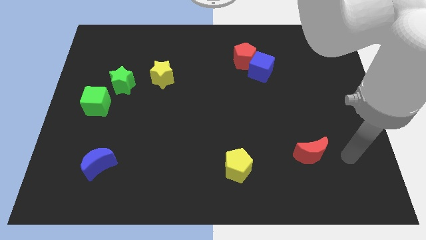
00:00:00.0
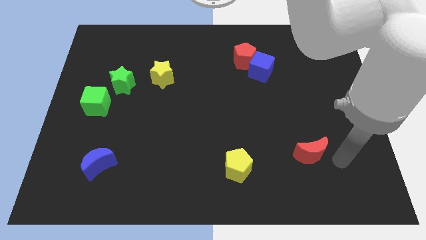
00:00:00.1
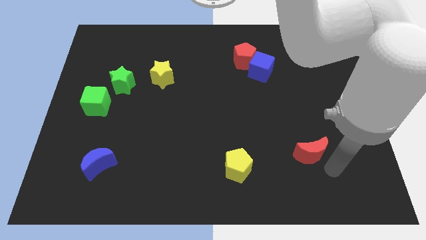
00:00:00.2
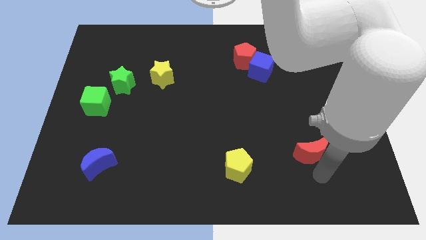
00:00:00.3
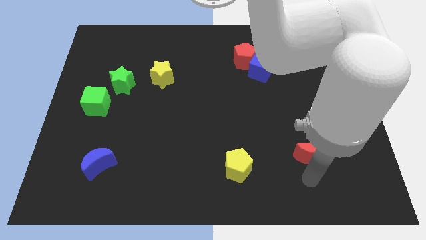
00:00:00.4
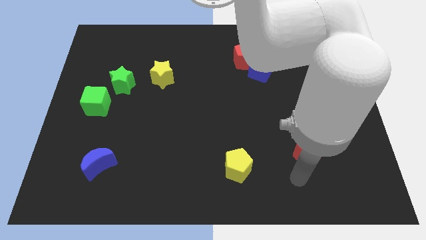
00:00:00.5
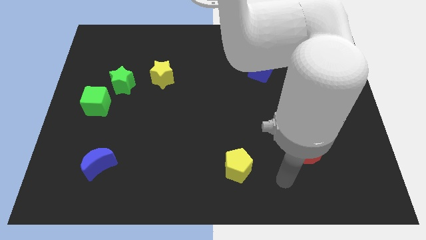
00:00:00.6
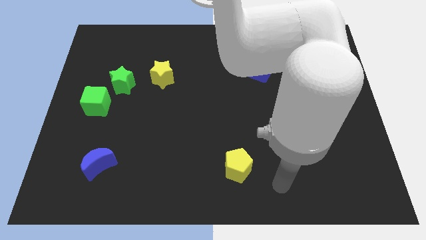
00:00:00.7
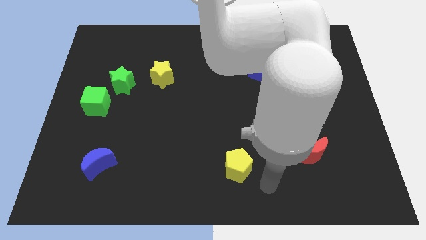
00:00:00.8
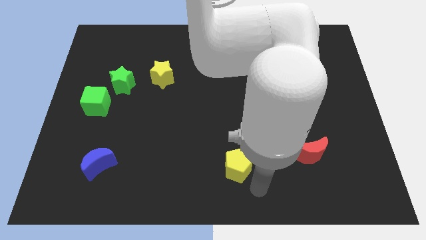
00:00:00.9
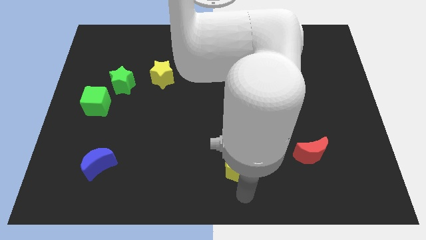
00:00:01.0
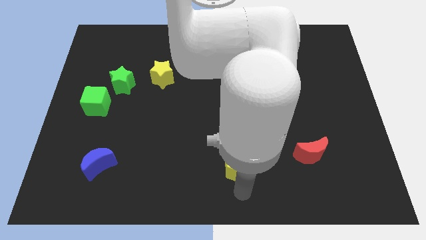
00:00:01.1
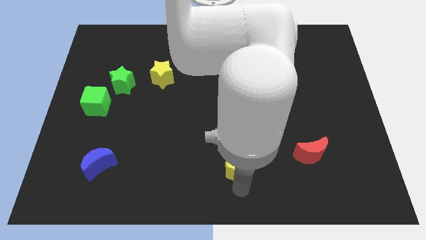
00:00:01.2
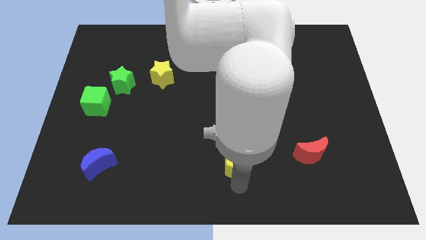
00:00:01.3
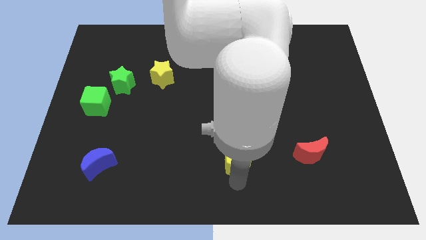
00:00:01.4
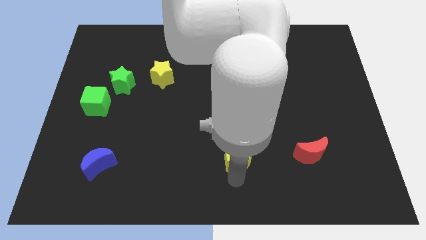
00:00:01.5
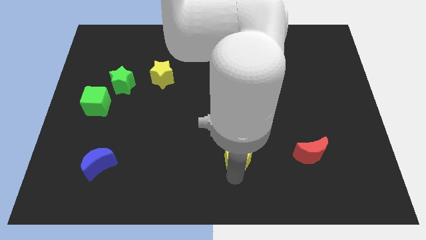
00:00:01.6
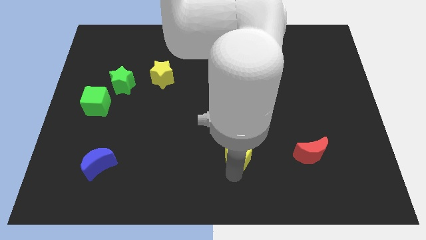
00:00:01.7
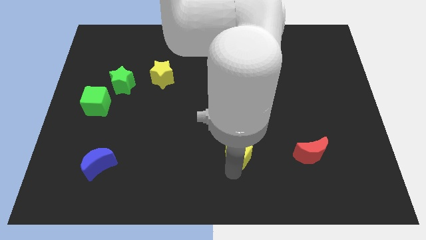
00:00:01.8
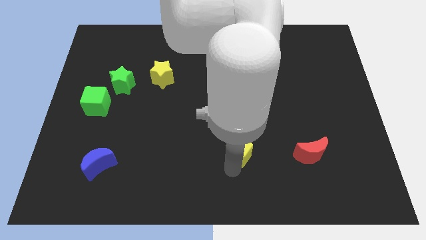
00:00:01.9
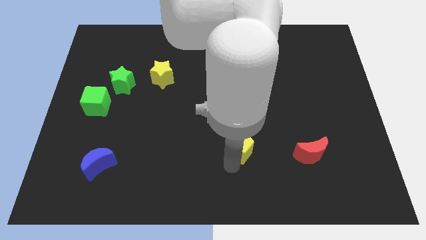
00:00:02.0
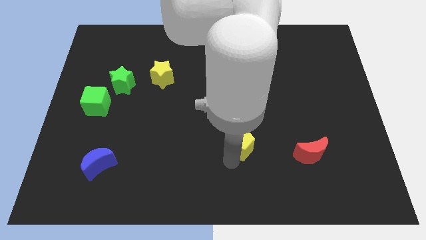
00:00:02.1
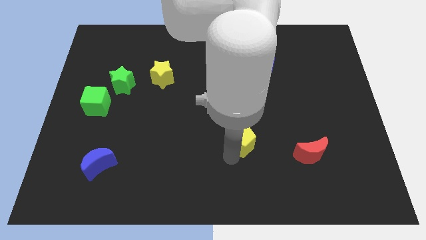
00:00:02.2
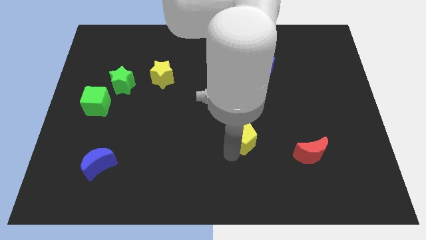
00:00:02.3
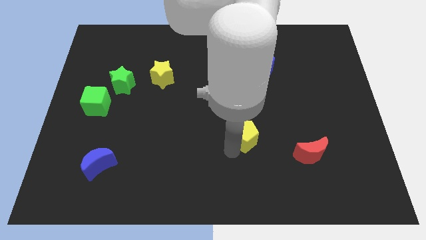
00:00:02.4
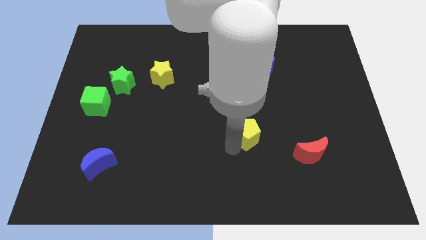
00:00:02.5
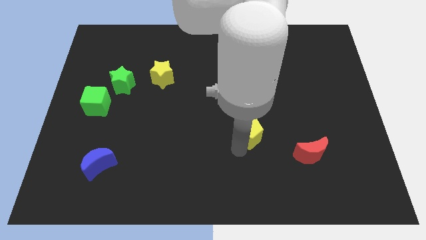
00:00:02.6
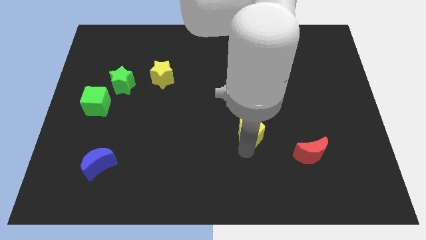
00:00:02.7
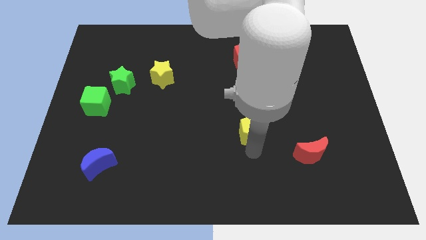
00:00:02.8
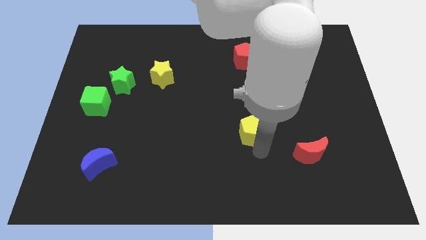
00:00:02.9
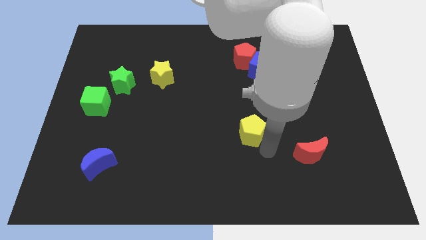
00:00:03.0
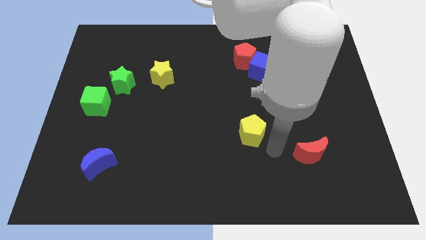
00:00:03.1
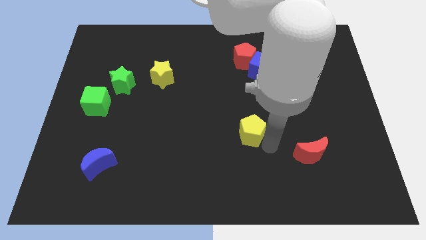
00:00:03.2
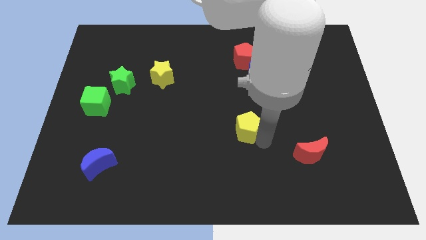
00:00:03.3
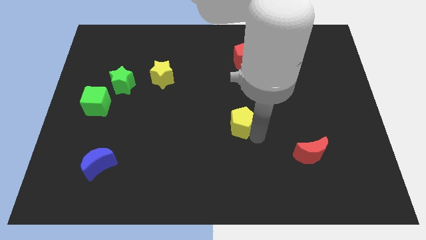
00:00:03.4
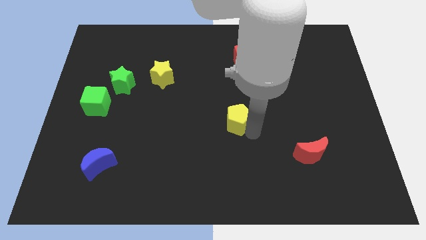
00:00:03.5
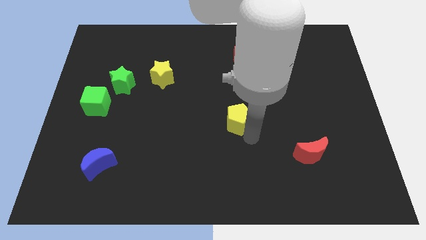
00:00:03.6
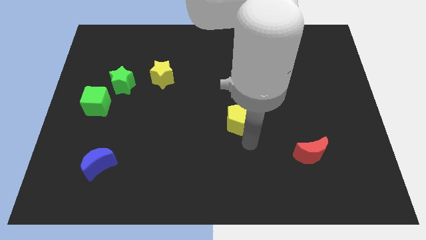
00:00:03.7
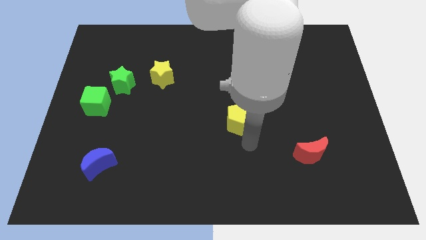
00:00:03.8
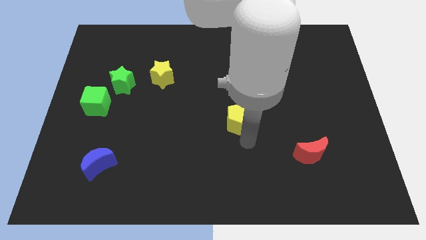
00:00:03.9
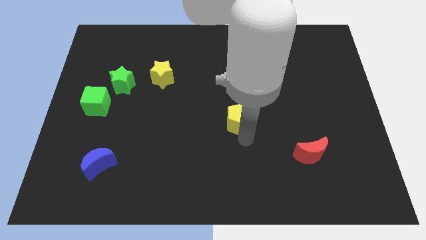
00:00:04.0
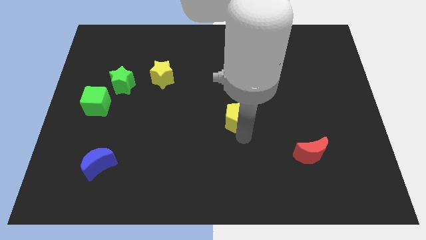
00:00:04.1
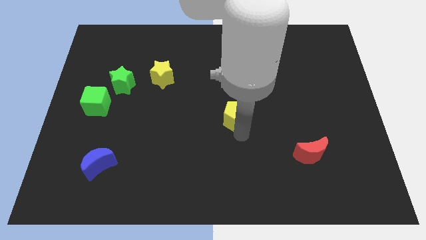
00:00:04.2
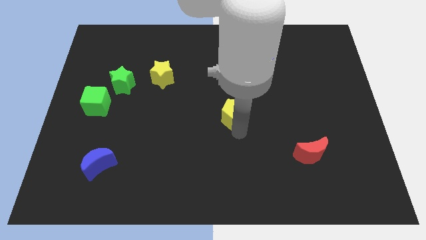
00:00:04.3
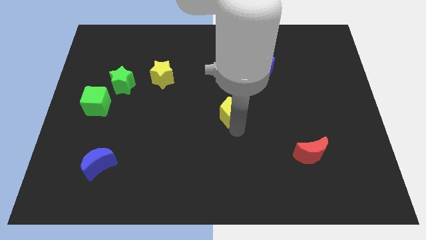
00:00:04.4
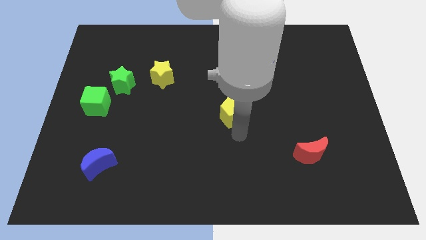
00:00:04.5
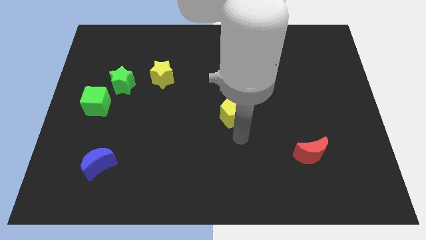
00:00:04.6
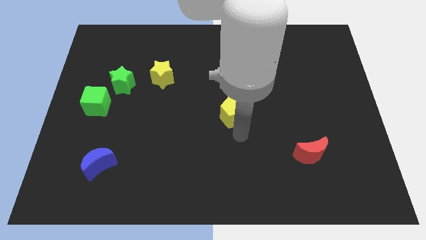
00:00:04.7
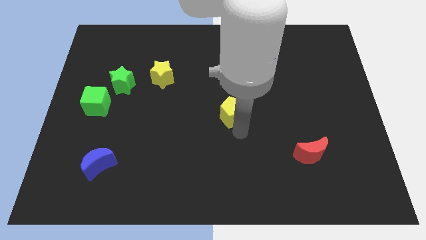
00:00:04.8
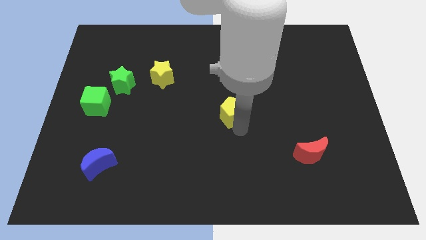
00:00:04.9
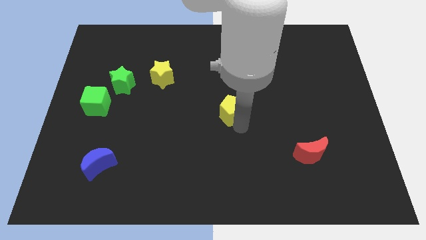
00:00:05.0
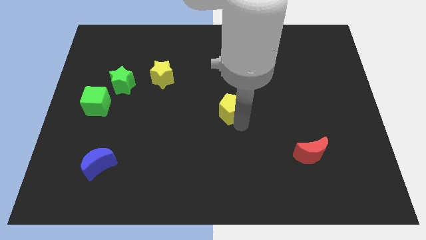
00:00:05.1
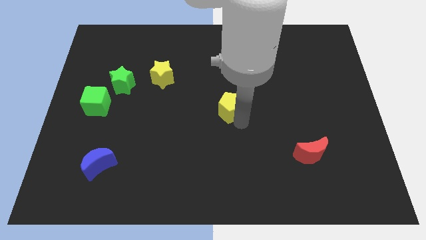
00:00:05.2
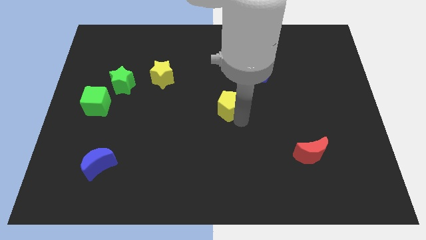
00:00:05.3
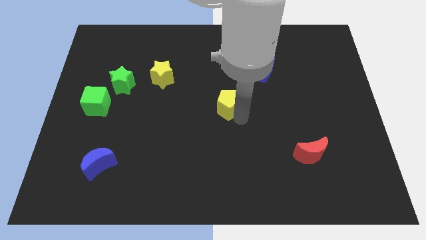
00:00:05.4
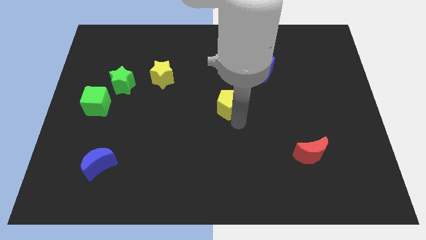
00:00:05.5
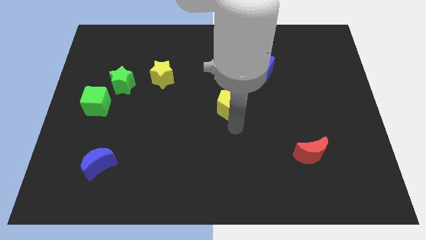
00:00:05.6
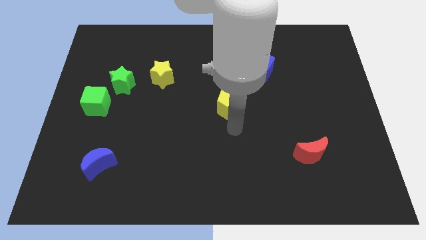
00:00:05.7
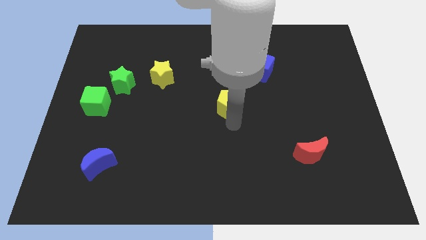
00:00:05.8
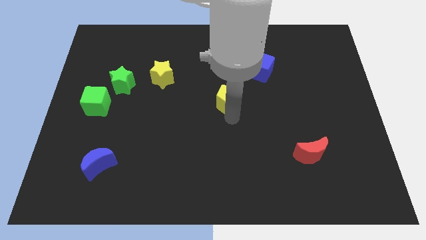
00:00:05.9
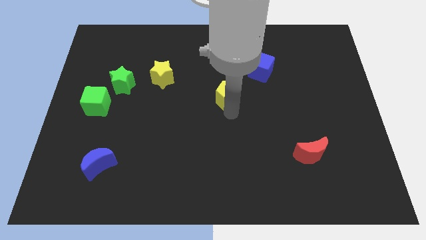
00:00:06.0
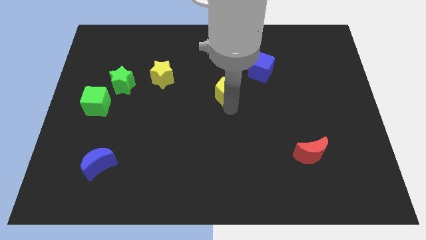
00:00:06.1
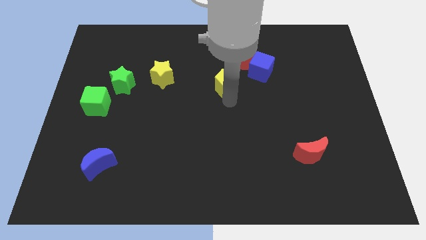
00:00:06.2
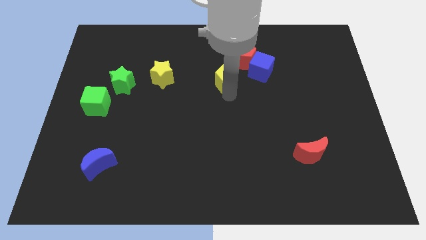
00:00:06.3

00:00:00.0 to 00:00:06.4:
put the yellow pentagon left of the blue cube

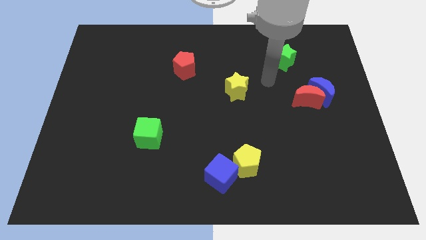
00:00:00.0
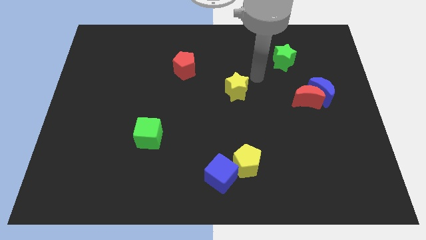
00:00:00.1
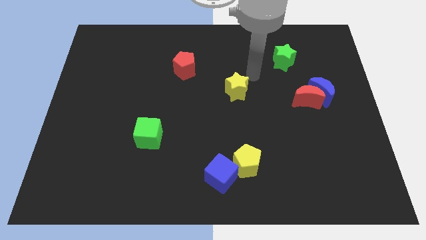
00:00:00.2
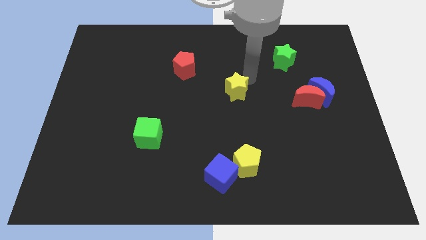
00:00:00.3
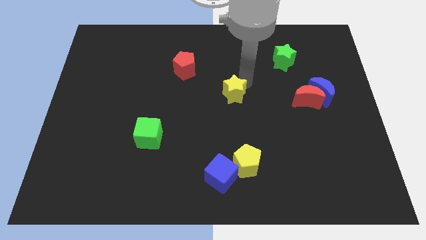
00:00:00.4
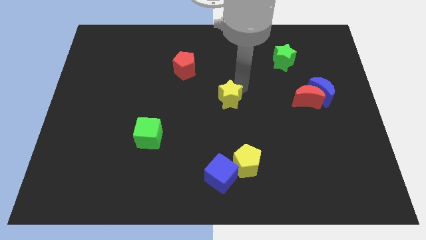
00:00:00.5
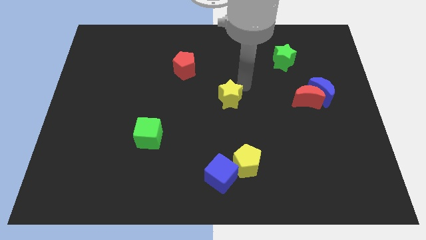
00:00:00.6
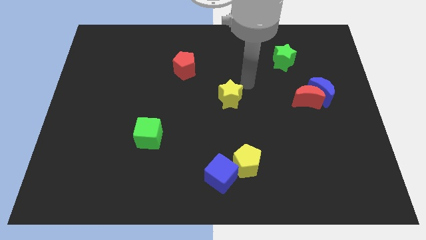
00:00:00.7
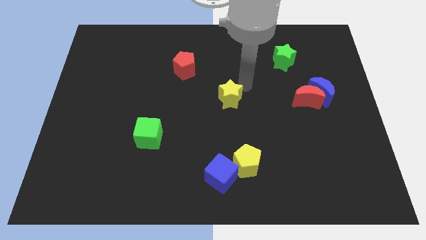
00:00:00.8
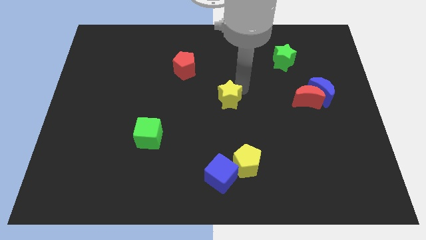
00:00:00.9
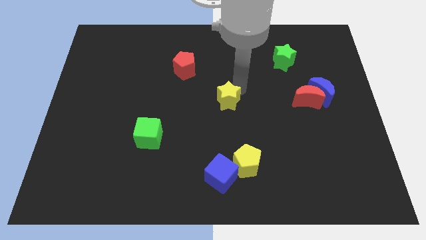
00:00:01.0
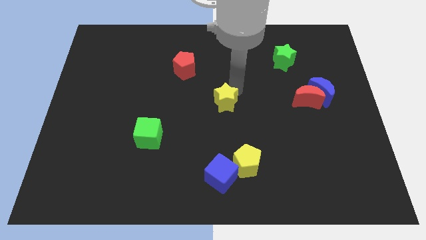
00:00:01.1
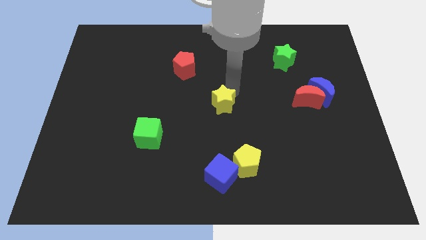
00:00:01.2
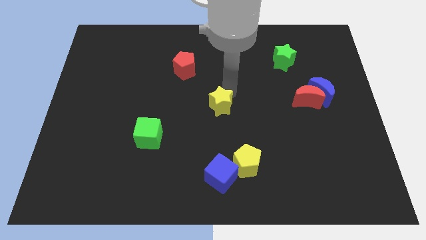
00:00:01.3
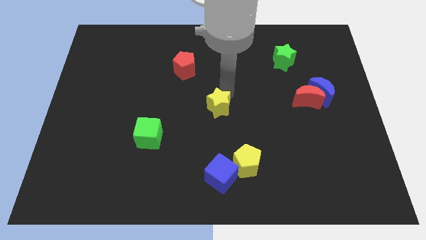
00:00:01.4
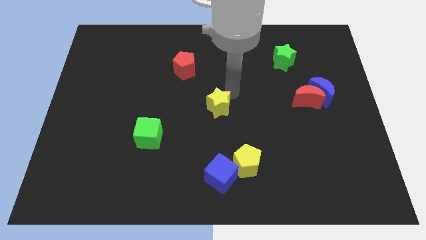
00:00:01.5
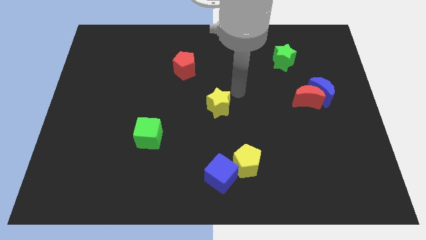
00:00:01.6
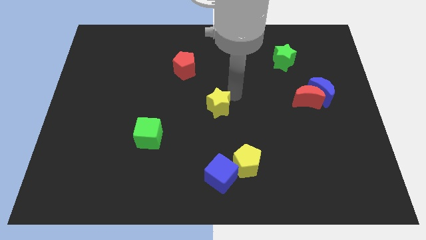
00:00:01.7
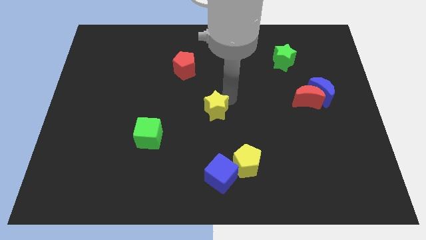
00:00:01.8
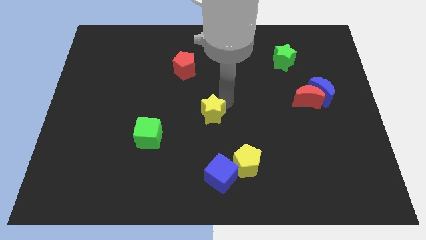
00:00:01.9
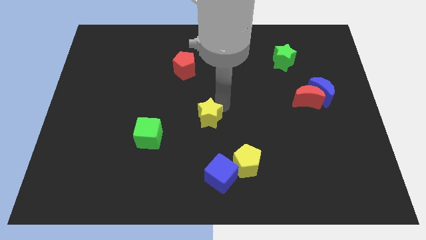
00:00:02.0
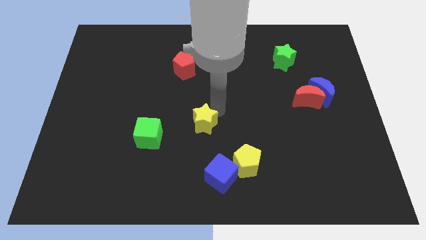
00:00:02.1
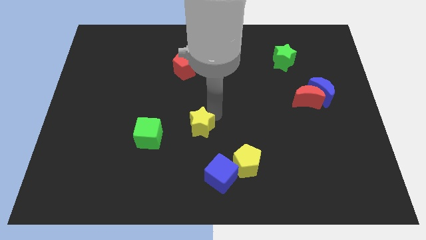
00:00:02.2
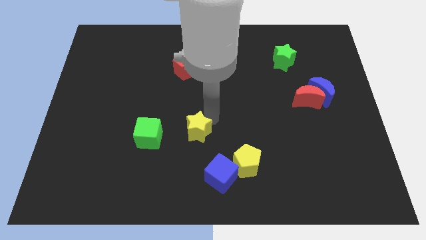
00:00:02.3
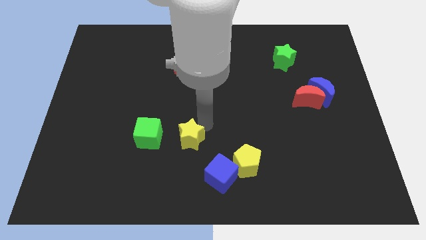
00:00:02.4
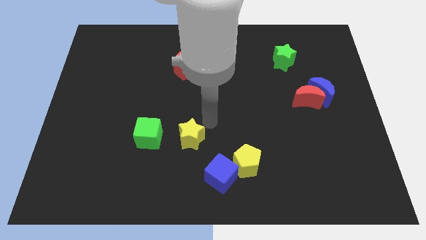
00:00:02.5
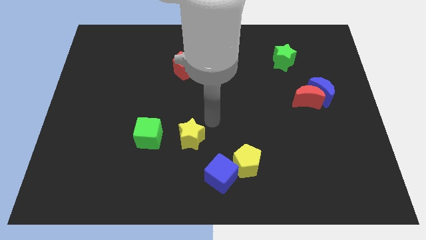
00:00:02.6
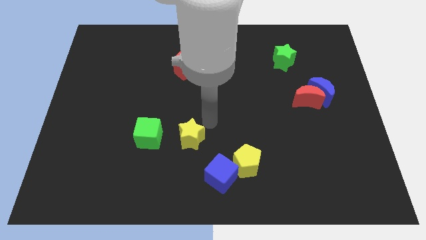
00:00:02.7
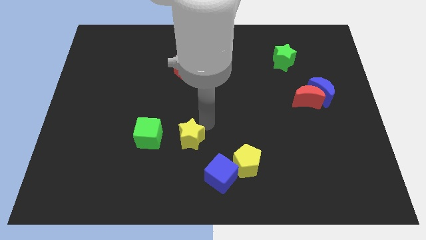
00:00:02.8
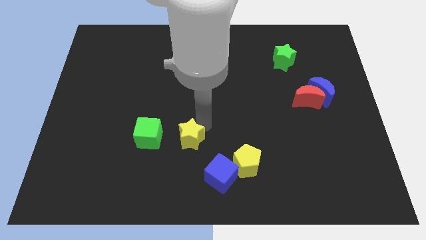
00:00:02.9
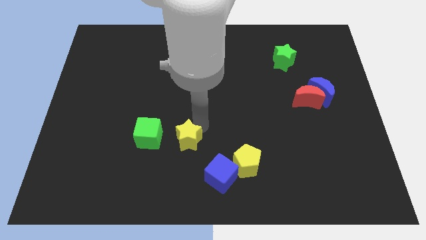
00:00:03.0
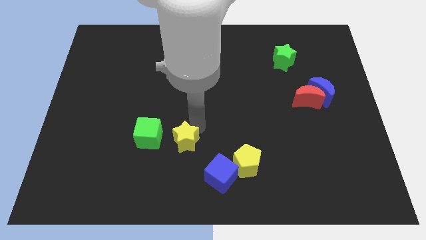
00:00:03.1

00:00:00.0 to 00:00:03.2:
push the yellow star to the bottom right of the green cube
